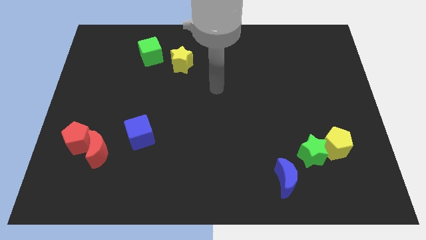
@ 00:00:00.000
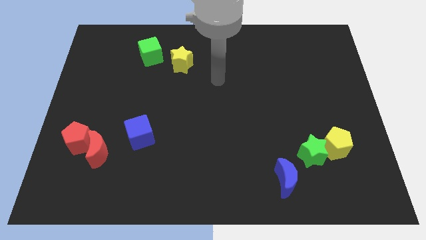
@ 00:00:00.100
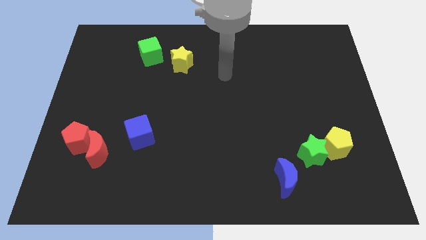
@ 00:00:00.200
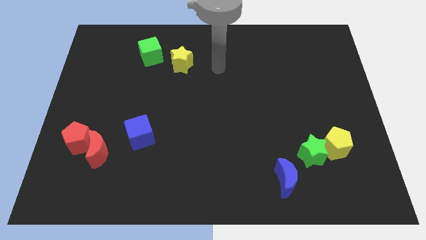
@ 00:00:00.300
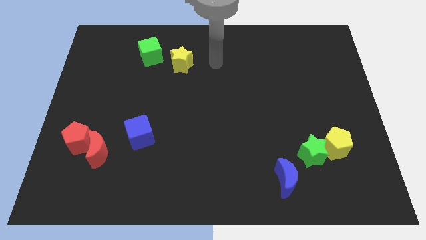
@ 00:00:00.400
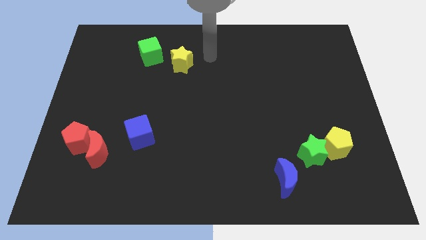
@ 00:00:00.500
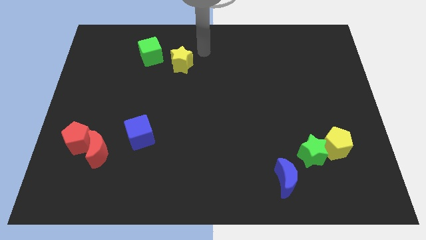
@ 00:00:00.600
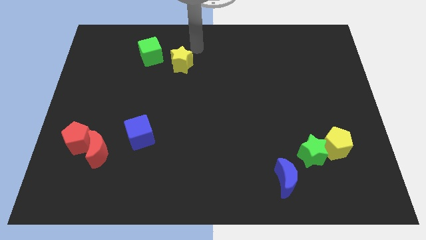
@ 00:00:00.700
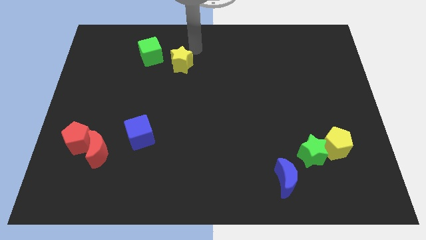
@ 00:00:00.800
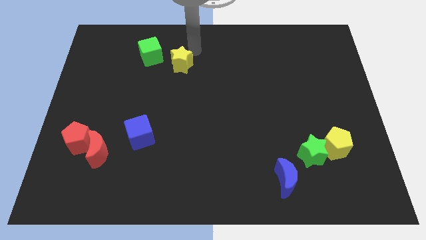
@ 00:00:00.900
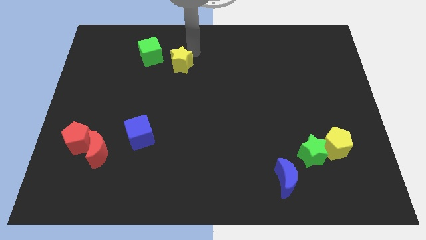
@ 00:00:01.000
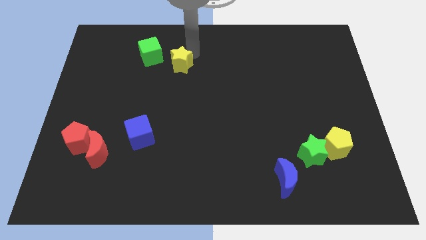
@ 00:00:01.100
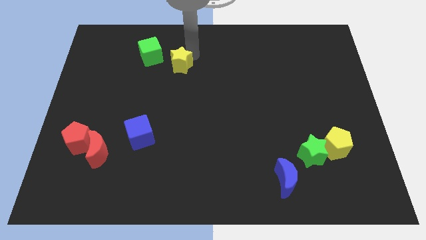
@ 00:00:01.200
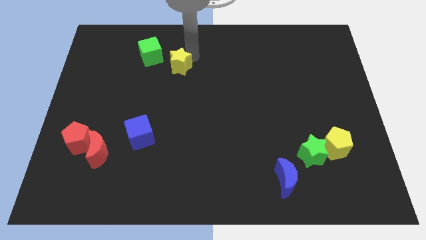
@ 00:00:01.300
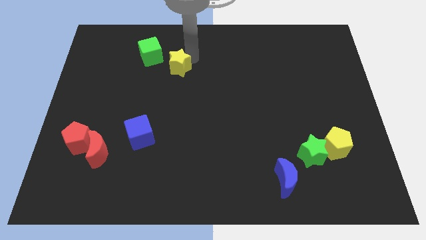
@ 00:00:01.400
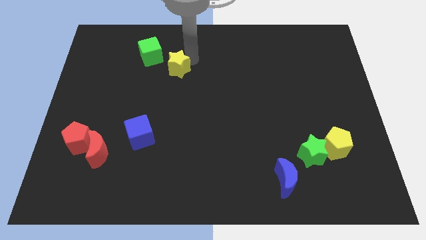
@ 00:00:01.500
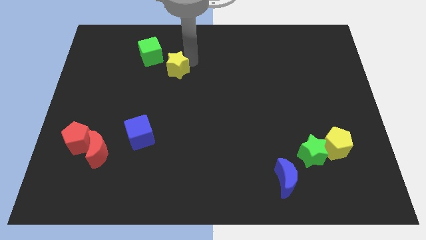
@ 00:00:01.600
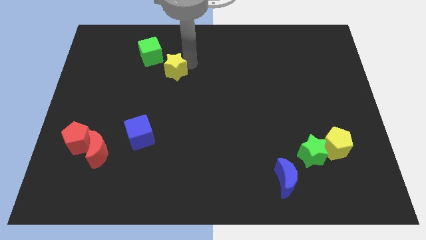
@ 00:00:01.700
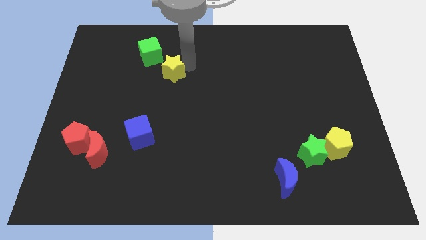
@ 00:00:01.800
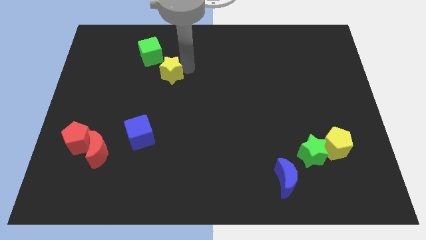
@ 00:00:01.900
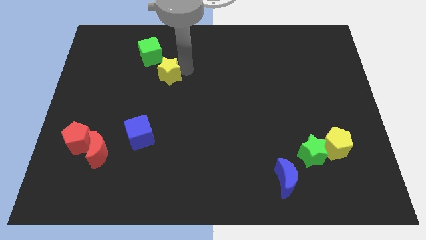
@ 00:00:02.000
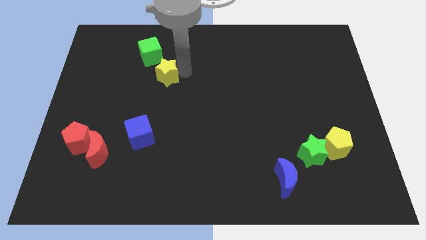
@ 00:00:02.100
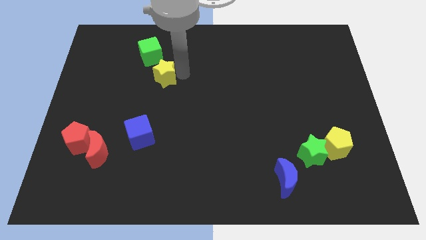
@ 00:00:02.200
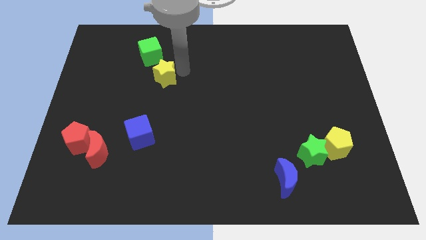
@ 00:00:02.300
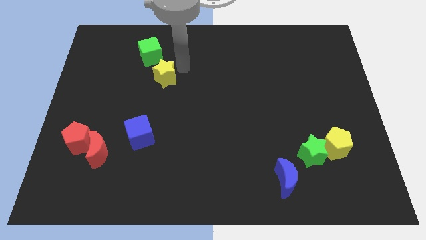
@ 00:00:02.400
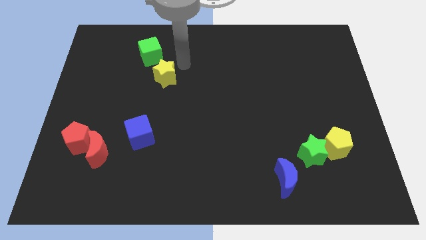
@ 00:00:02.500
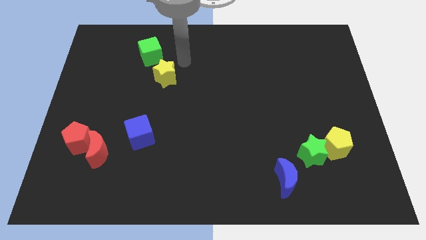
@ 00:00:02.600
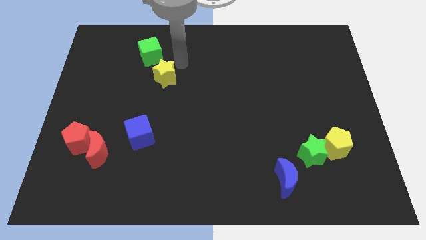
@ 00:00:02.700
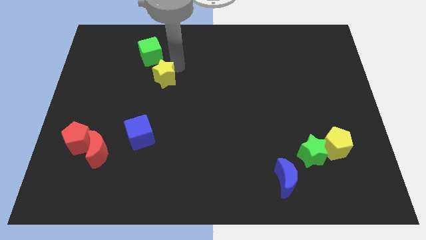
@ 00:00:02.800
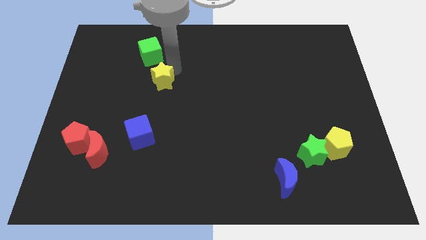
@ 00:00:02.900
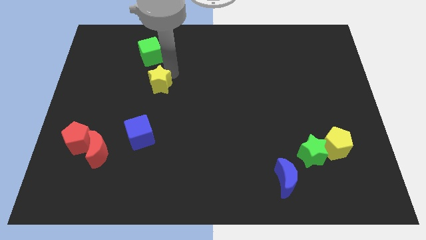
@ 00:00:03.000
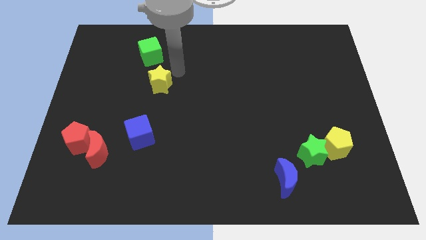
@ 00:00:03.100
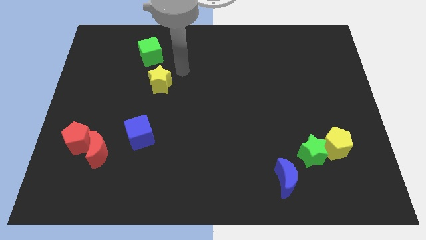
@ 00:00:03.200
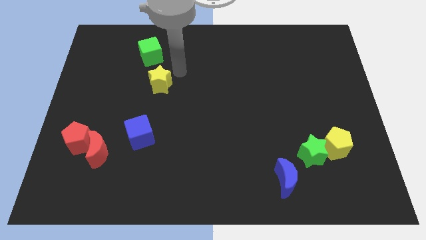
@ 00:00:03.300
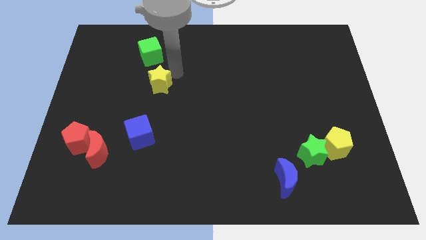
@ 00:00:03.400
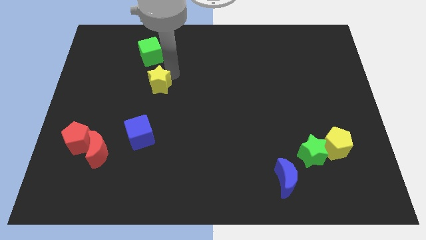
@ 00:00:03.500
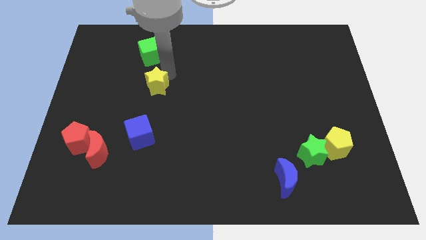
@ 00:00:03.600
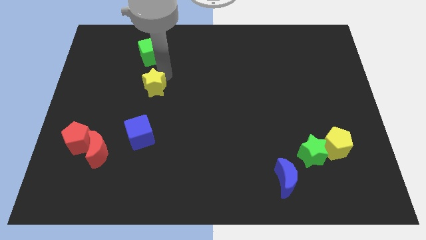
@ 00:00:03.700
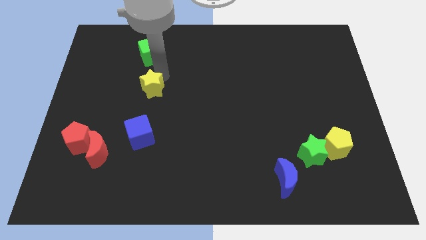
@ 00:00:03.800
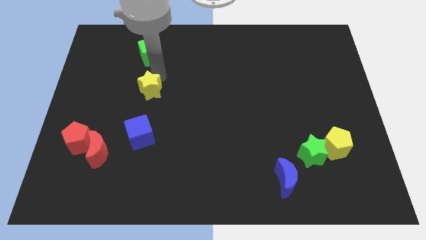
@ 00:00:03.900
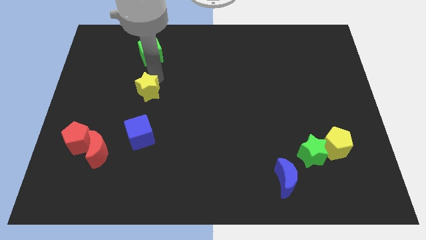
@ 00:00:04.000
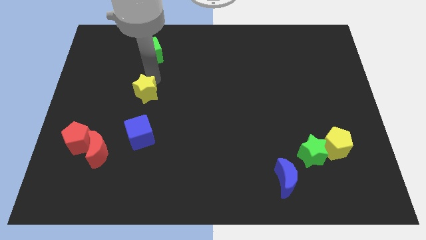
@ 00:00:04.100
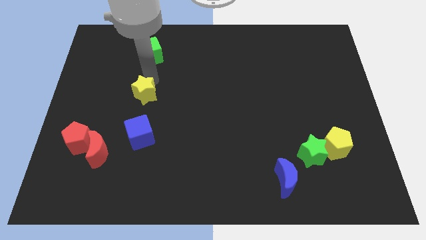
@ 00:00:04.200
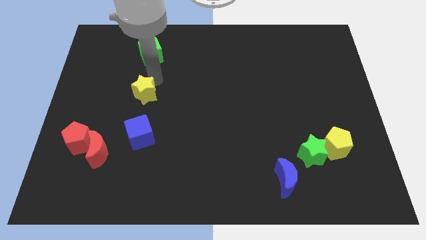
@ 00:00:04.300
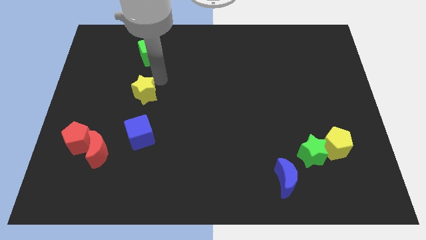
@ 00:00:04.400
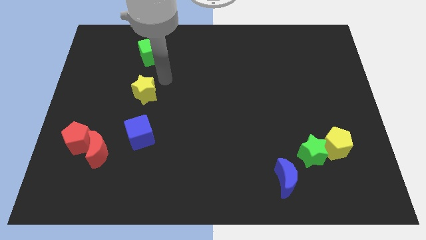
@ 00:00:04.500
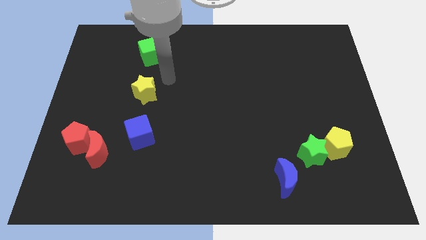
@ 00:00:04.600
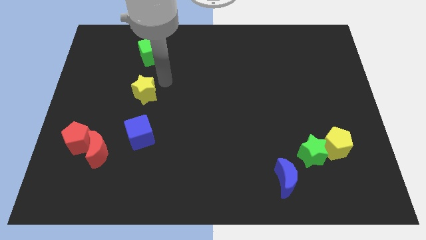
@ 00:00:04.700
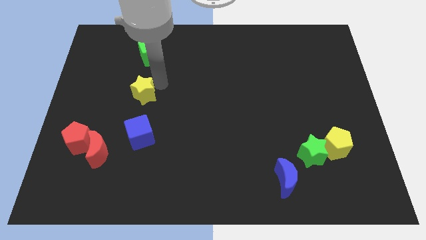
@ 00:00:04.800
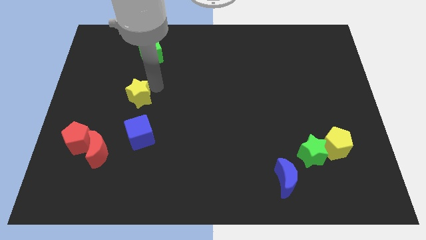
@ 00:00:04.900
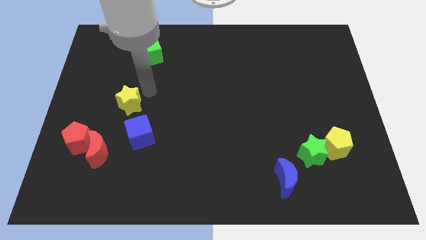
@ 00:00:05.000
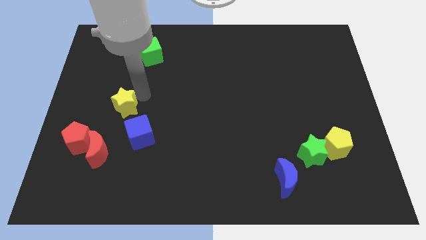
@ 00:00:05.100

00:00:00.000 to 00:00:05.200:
slide the yellow star to the top of the red moon

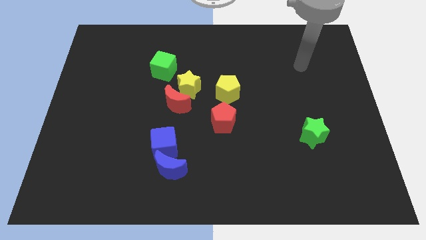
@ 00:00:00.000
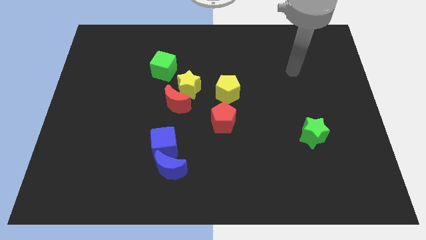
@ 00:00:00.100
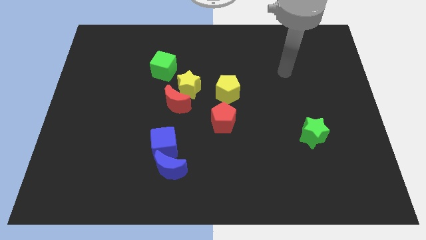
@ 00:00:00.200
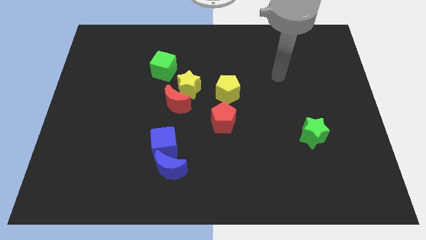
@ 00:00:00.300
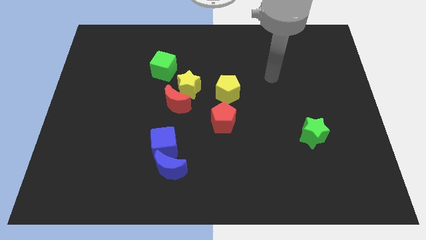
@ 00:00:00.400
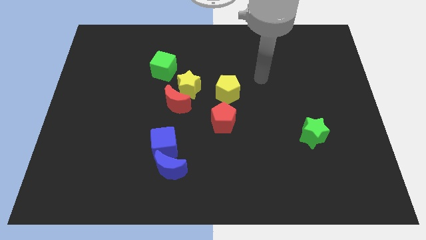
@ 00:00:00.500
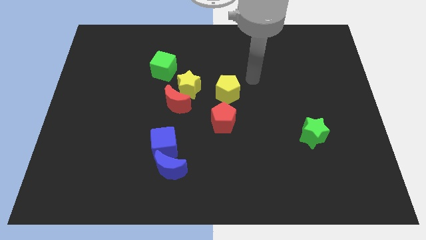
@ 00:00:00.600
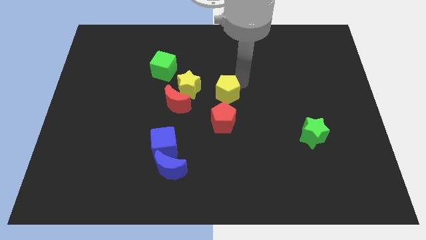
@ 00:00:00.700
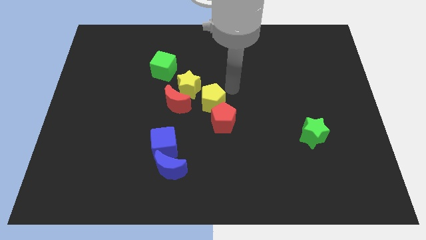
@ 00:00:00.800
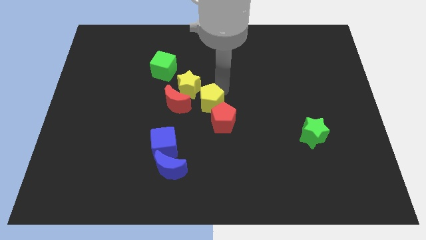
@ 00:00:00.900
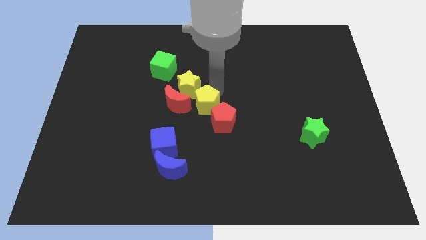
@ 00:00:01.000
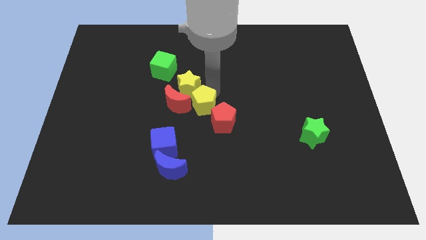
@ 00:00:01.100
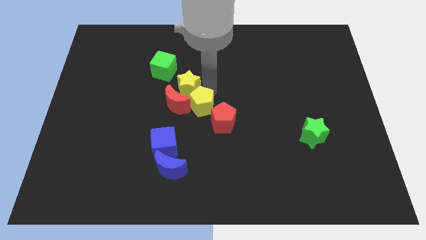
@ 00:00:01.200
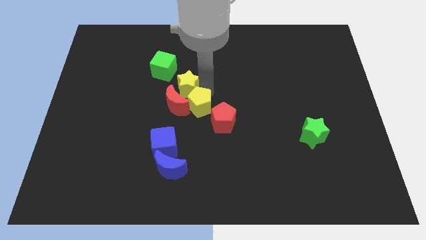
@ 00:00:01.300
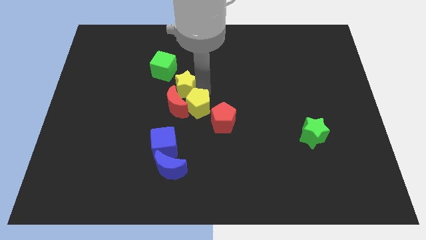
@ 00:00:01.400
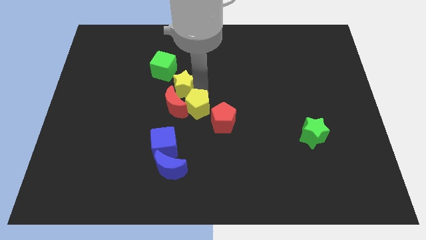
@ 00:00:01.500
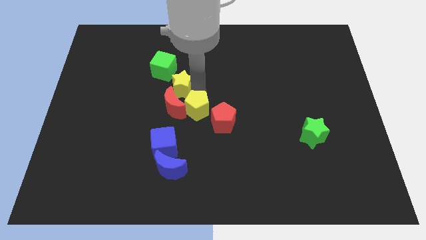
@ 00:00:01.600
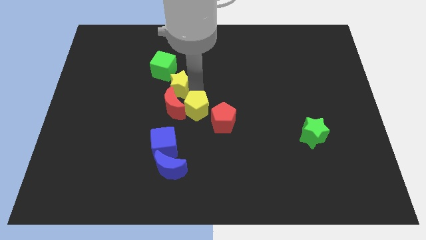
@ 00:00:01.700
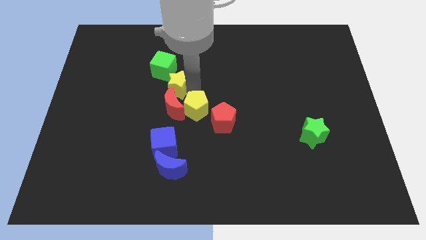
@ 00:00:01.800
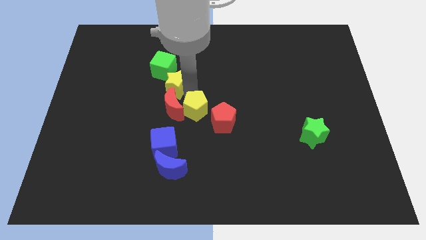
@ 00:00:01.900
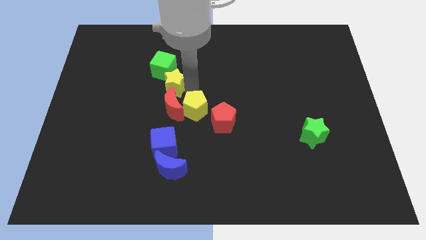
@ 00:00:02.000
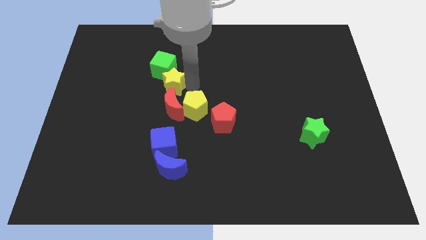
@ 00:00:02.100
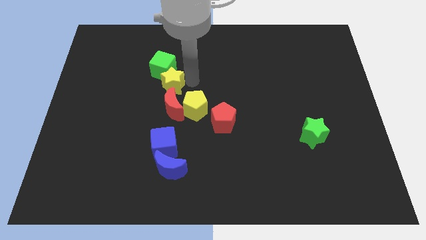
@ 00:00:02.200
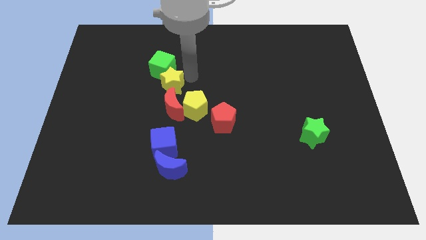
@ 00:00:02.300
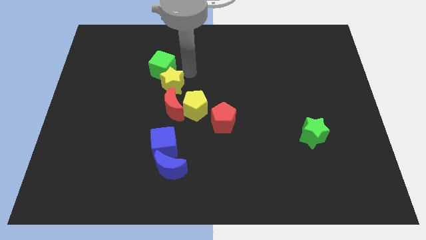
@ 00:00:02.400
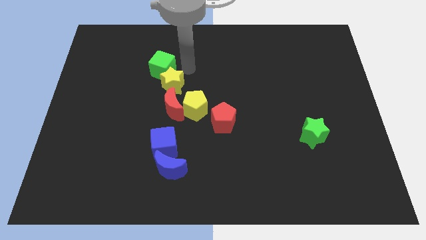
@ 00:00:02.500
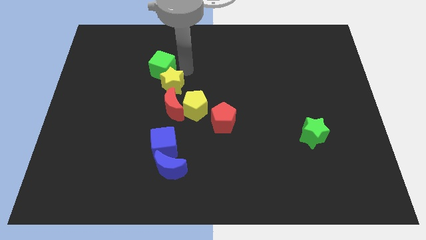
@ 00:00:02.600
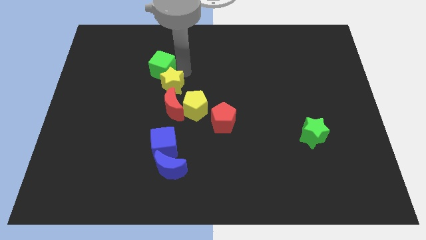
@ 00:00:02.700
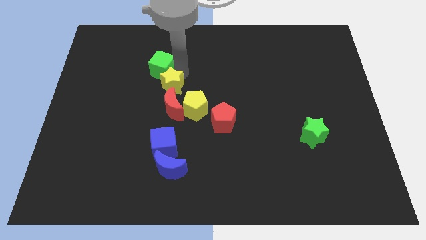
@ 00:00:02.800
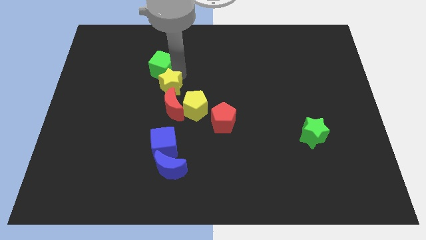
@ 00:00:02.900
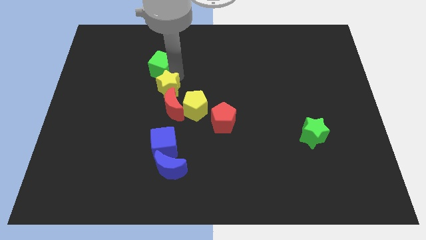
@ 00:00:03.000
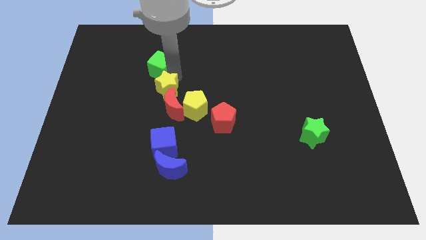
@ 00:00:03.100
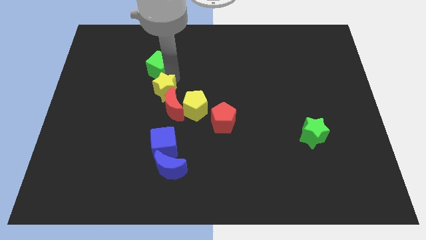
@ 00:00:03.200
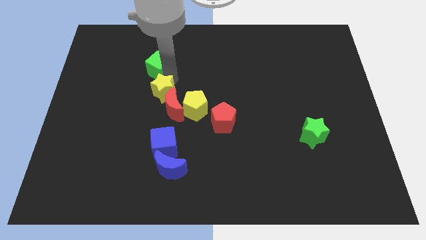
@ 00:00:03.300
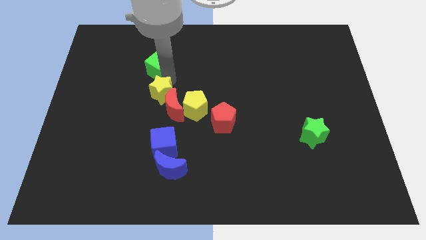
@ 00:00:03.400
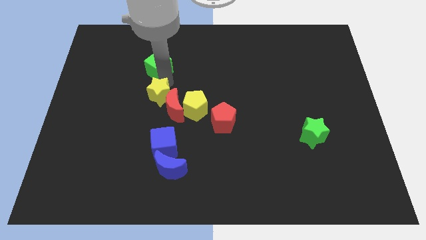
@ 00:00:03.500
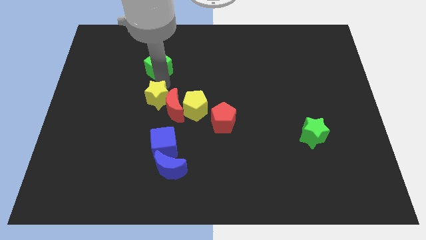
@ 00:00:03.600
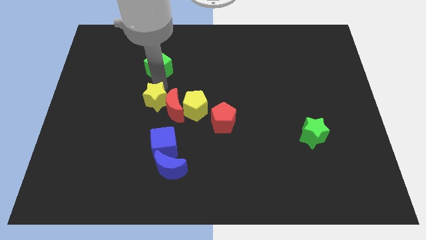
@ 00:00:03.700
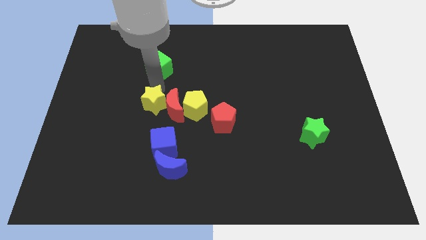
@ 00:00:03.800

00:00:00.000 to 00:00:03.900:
slide the yellow star to the bottom left of the red moon
